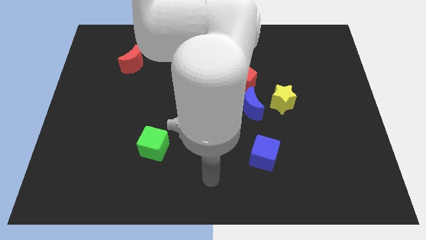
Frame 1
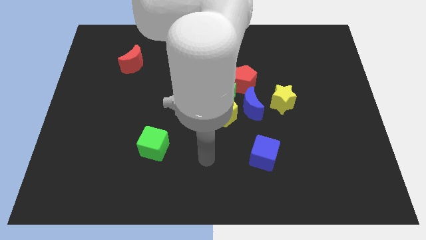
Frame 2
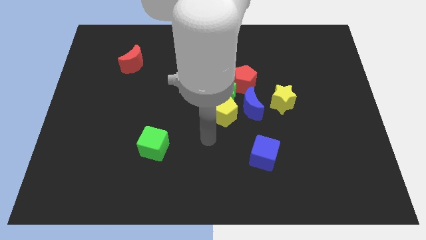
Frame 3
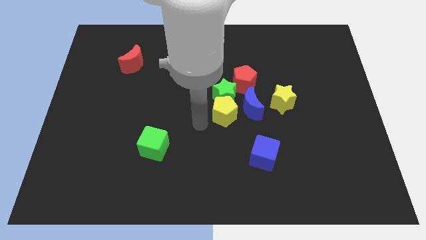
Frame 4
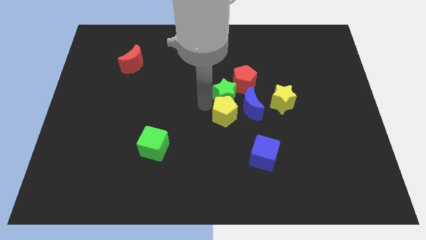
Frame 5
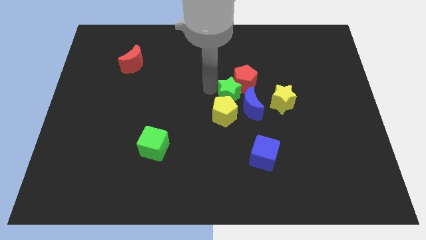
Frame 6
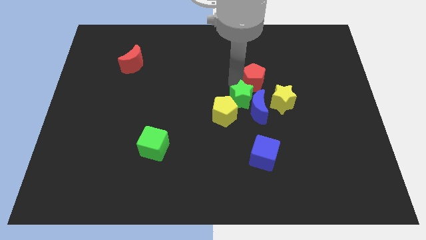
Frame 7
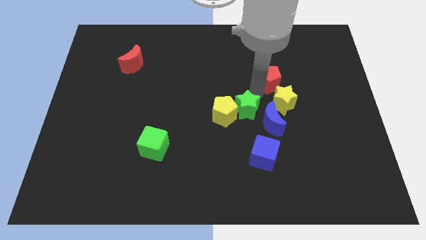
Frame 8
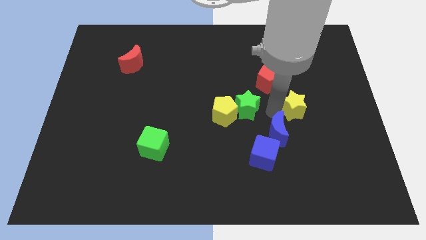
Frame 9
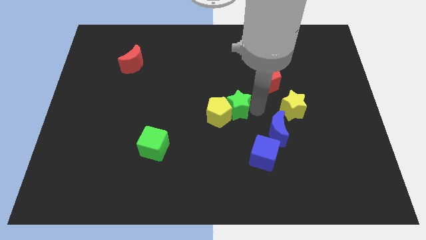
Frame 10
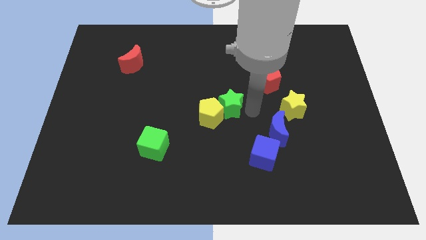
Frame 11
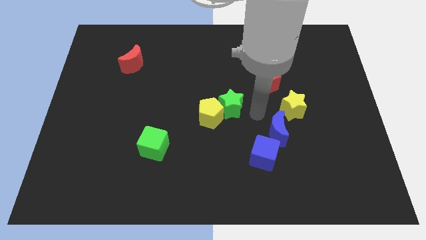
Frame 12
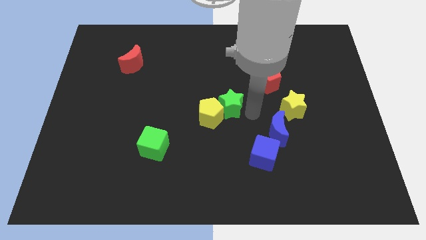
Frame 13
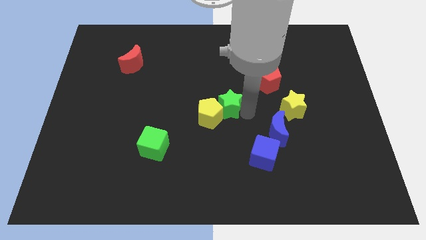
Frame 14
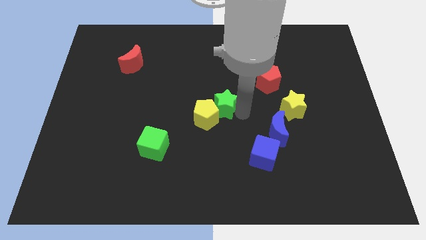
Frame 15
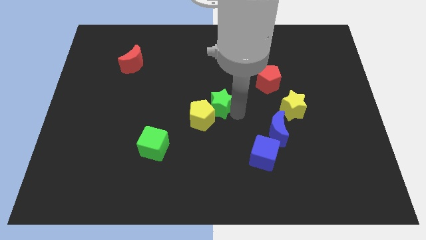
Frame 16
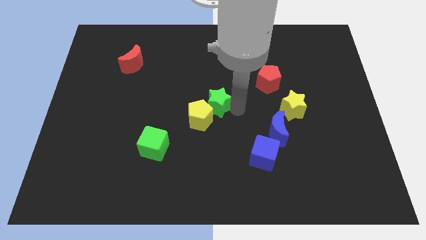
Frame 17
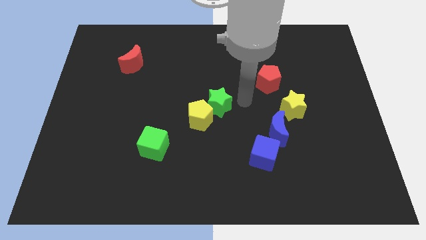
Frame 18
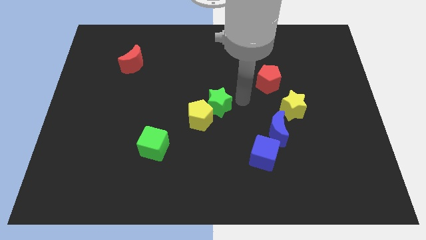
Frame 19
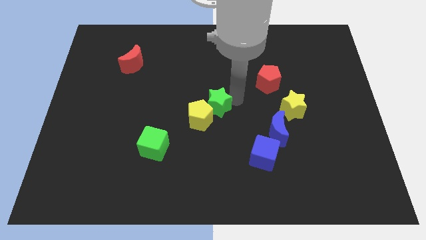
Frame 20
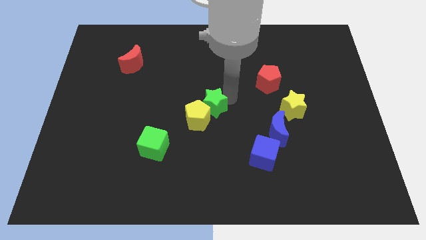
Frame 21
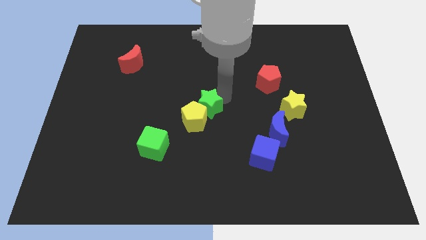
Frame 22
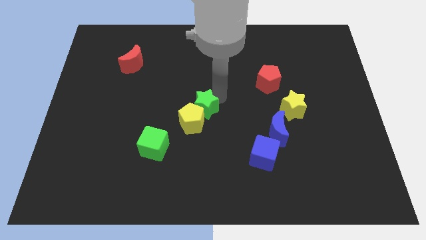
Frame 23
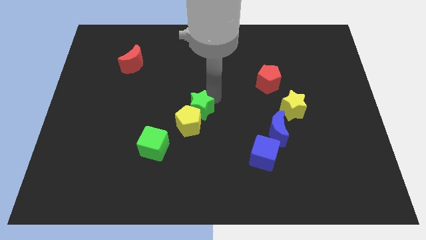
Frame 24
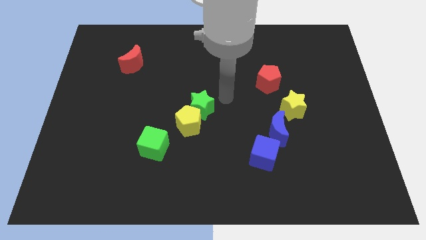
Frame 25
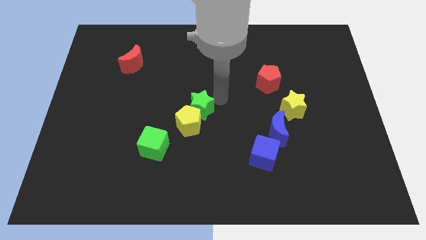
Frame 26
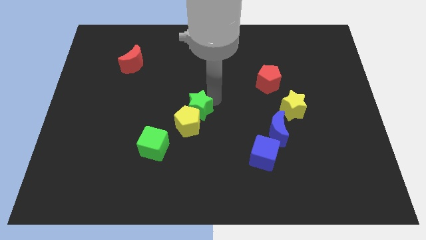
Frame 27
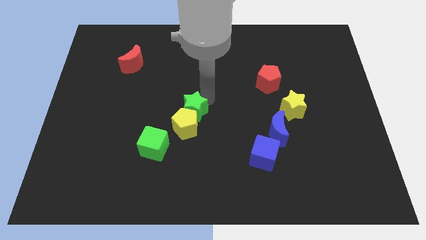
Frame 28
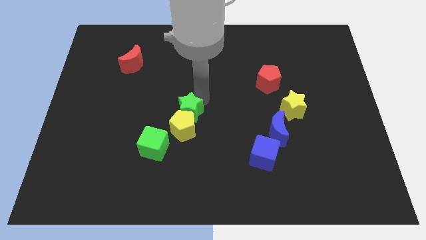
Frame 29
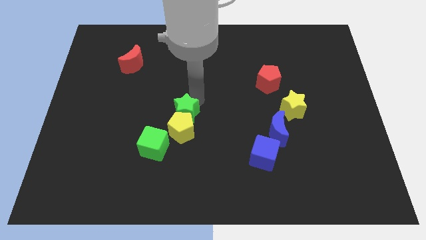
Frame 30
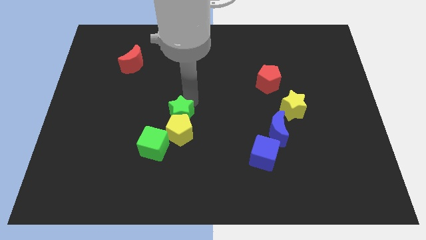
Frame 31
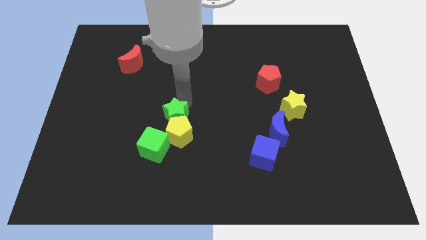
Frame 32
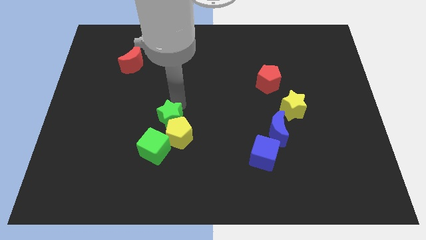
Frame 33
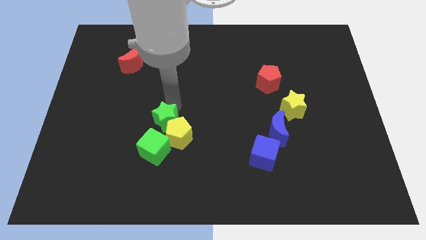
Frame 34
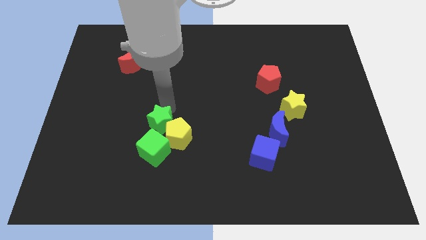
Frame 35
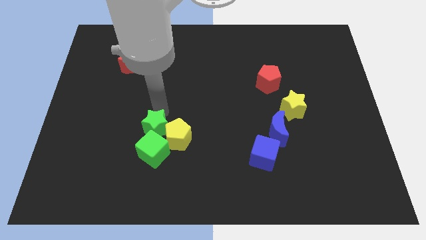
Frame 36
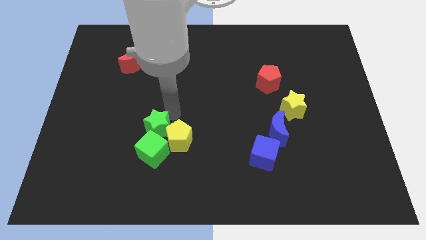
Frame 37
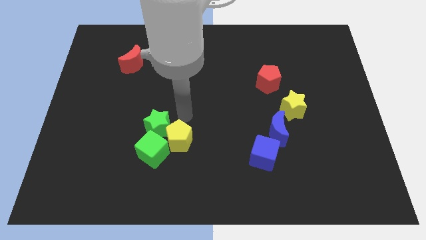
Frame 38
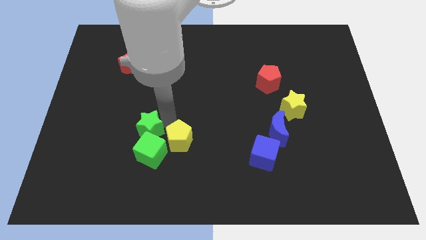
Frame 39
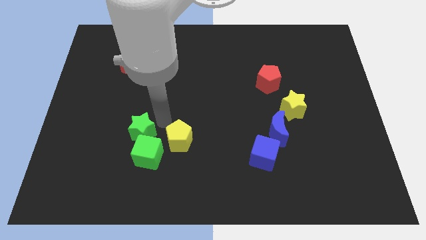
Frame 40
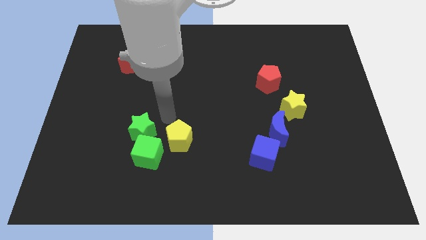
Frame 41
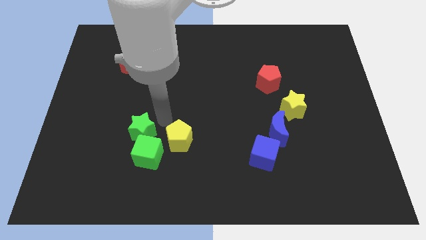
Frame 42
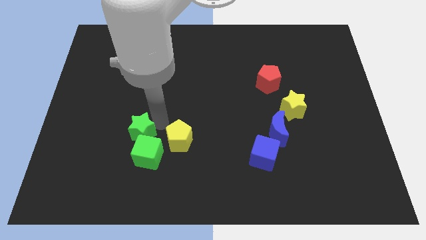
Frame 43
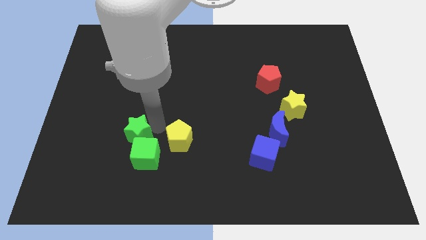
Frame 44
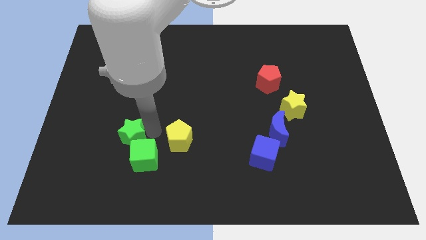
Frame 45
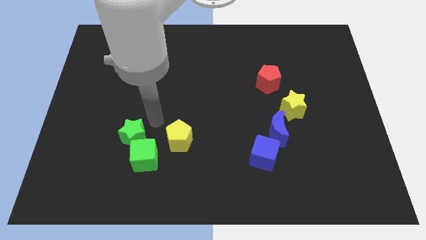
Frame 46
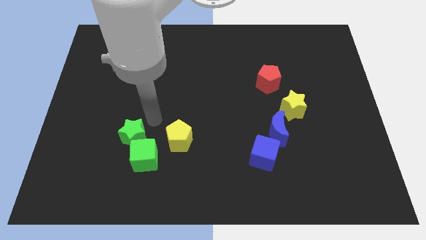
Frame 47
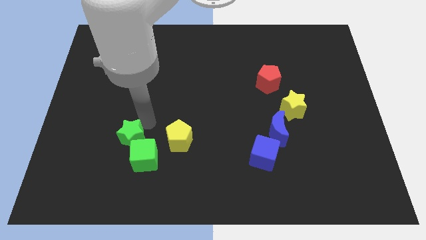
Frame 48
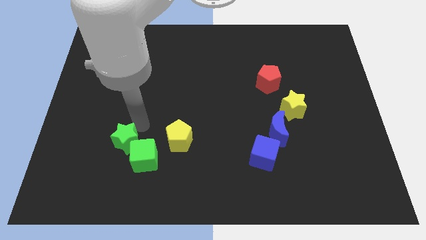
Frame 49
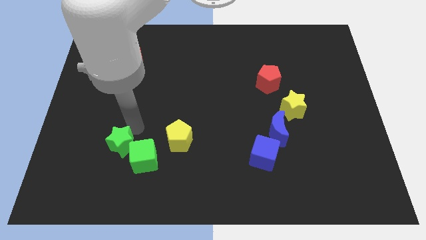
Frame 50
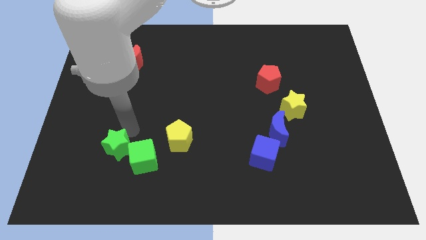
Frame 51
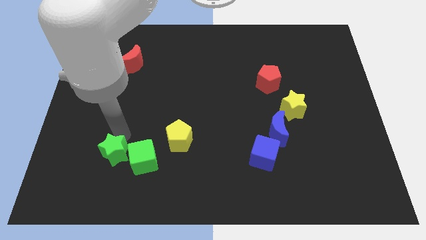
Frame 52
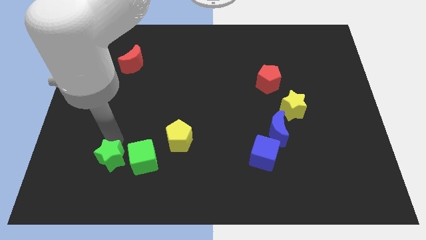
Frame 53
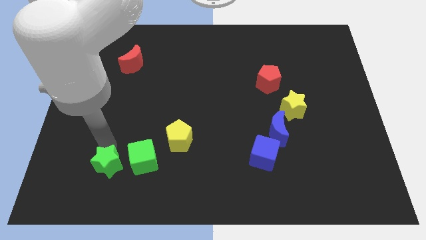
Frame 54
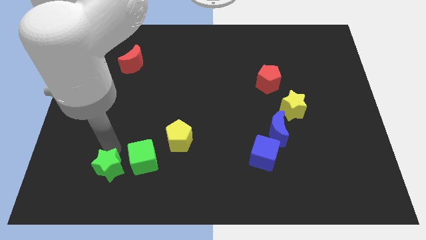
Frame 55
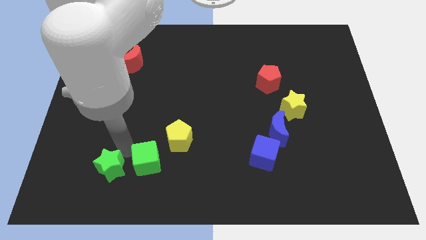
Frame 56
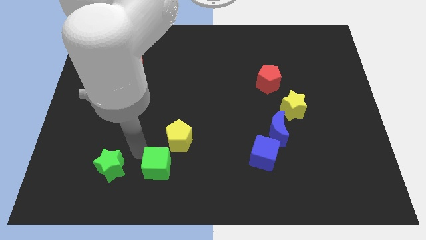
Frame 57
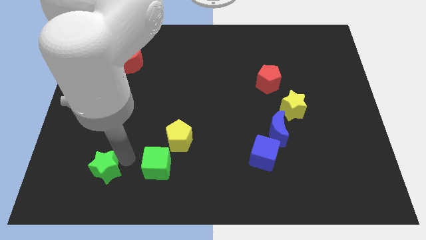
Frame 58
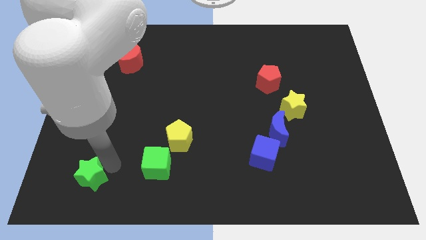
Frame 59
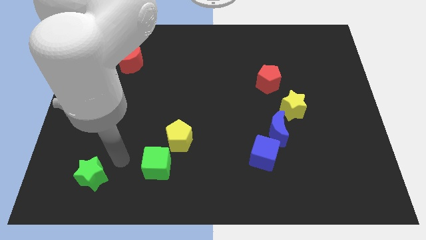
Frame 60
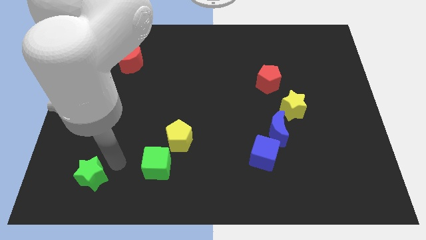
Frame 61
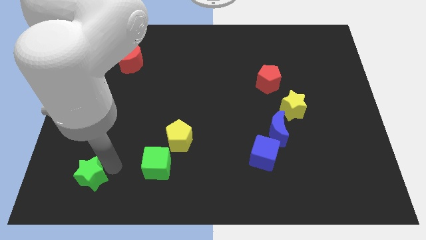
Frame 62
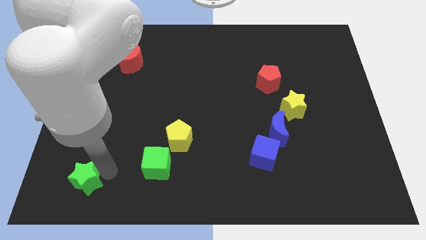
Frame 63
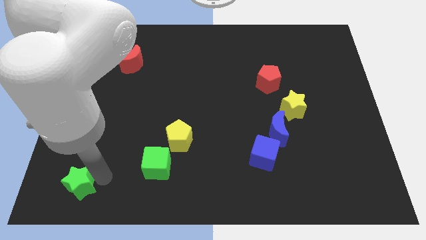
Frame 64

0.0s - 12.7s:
put the green star to the bottom left
